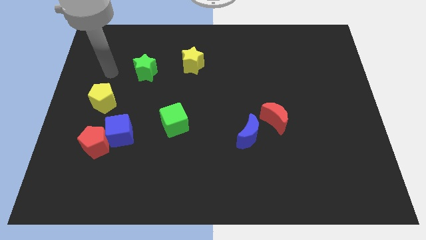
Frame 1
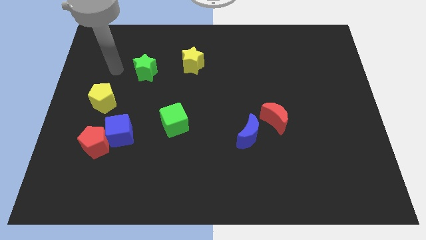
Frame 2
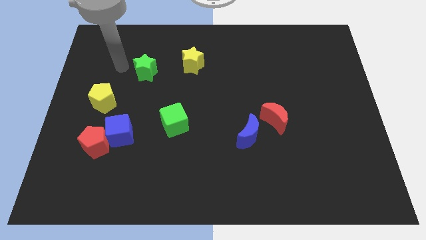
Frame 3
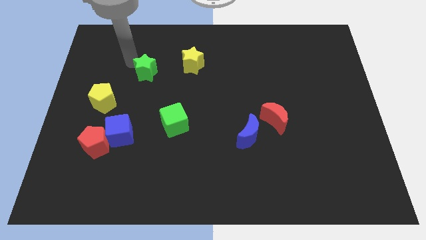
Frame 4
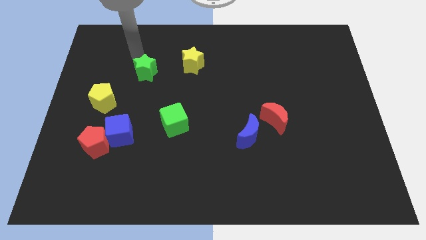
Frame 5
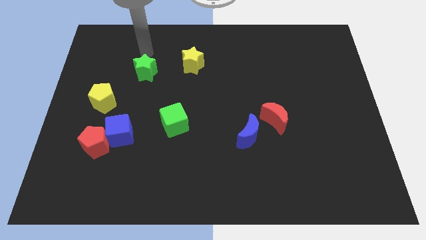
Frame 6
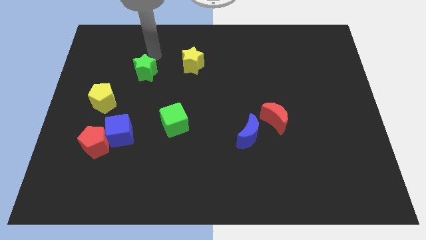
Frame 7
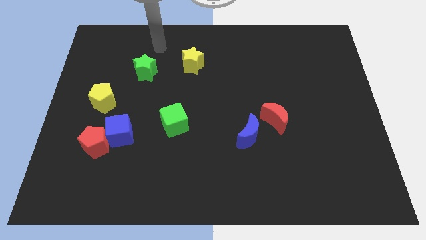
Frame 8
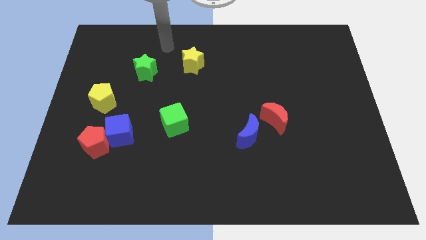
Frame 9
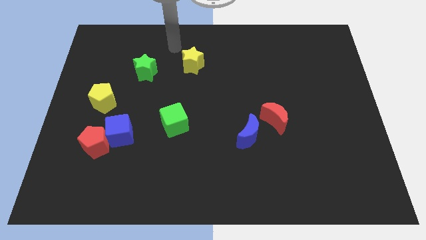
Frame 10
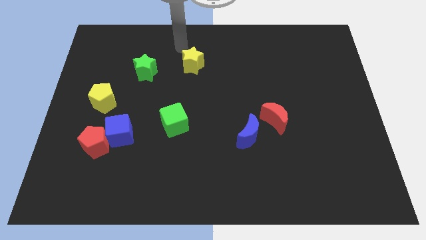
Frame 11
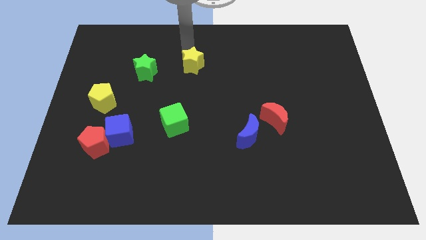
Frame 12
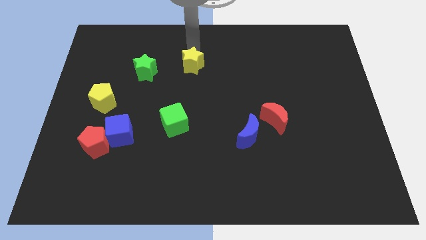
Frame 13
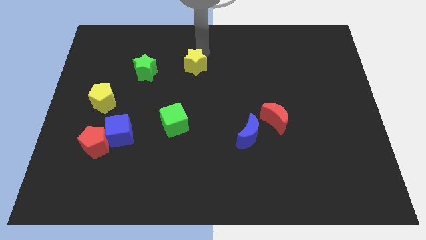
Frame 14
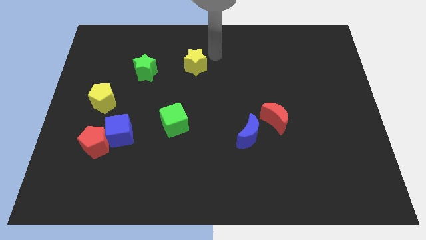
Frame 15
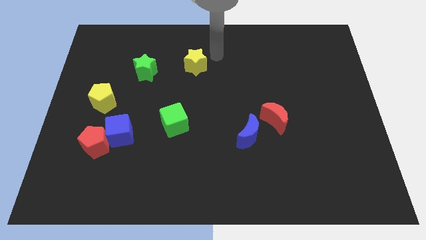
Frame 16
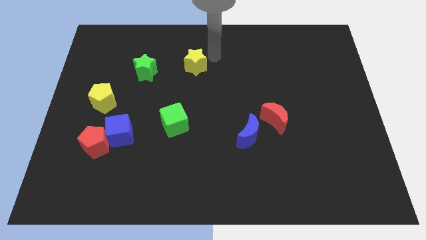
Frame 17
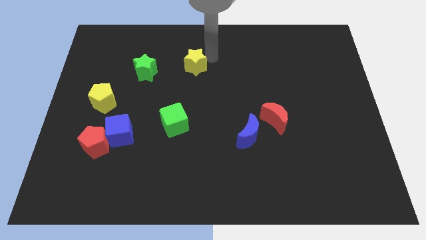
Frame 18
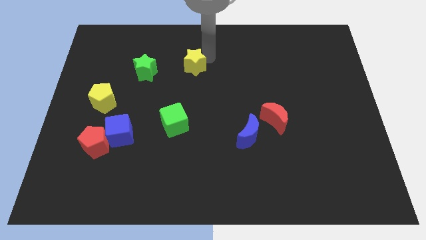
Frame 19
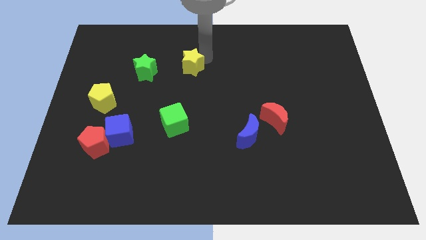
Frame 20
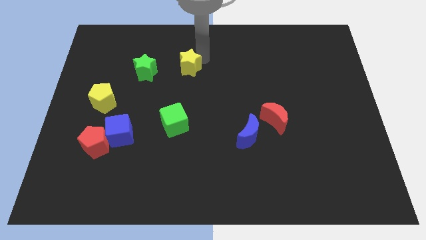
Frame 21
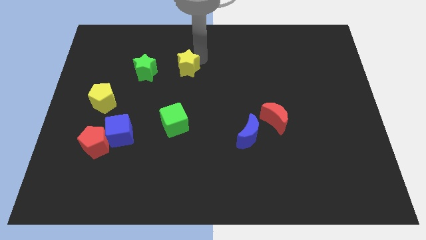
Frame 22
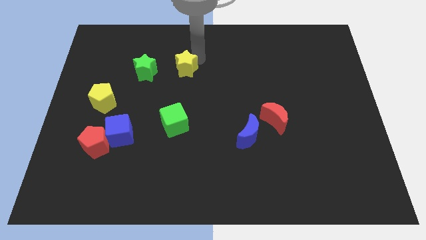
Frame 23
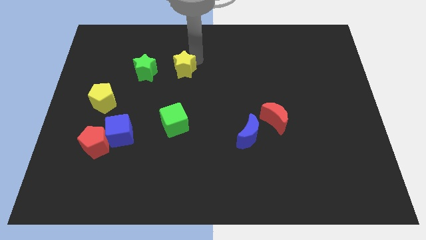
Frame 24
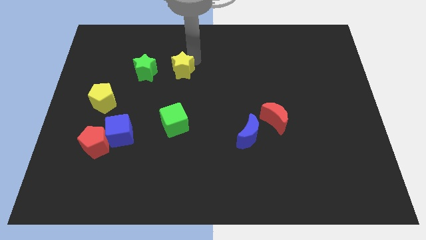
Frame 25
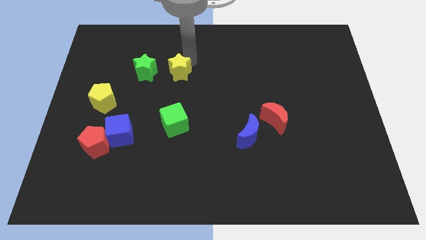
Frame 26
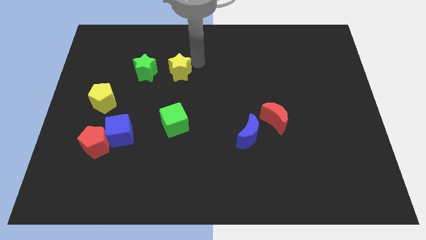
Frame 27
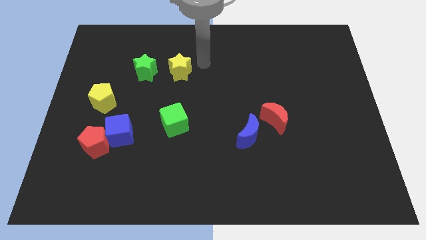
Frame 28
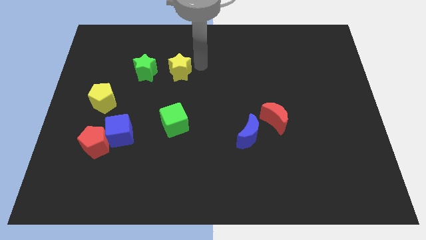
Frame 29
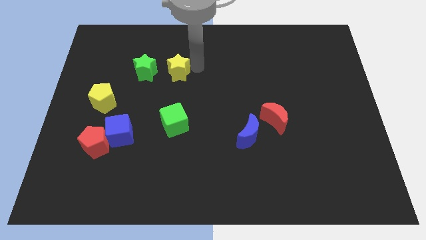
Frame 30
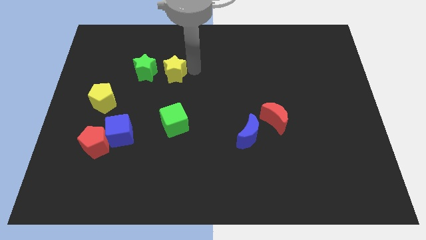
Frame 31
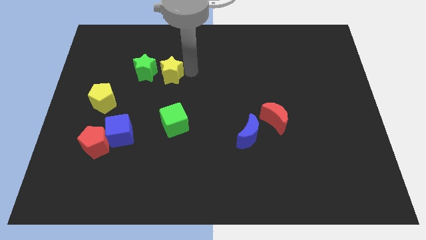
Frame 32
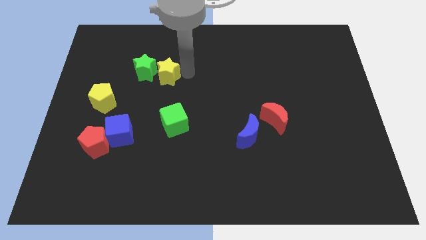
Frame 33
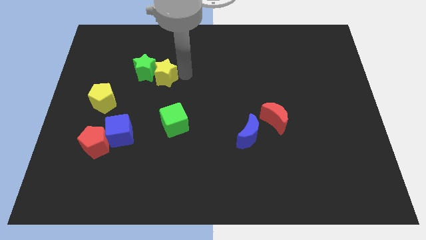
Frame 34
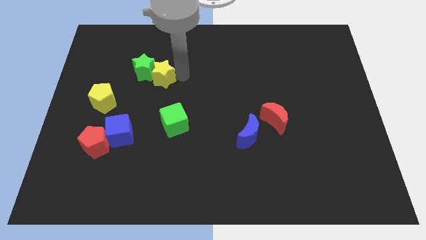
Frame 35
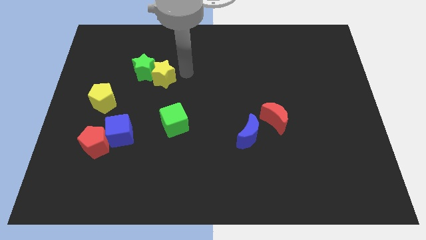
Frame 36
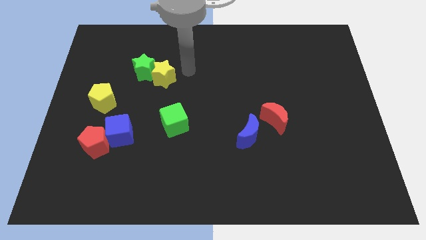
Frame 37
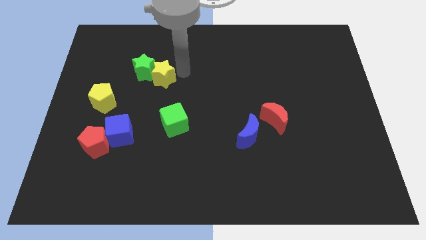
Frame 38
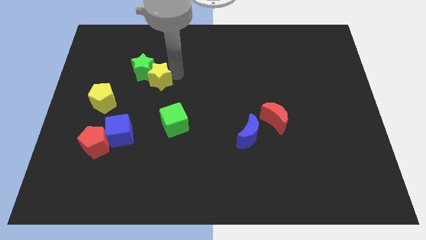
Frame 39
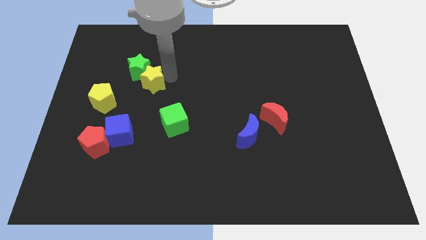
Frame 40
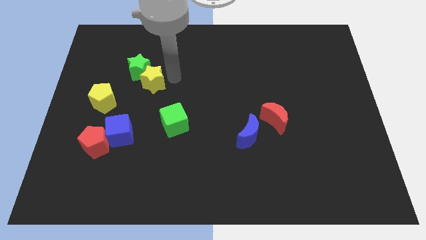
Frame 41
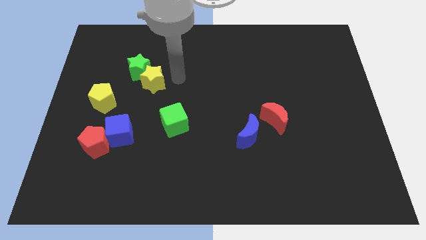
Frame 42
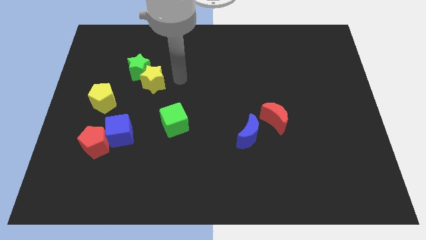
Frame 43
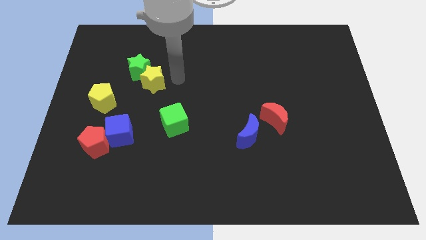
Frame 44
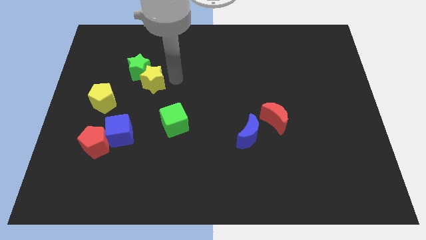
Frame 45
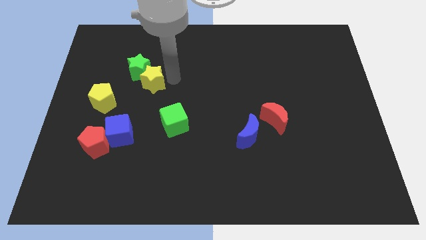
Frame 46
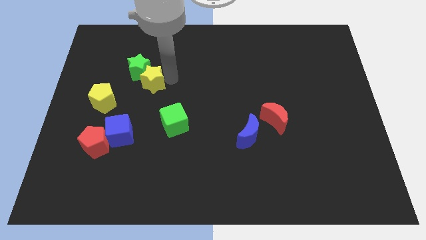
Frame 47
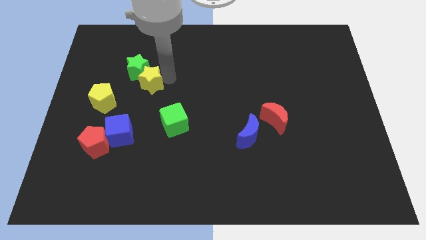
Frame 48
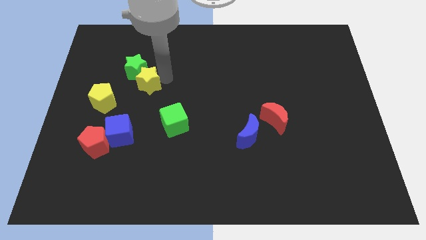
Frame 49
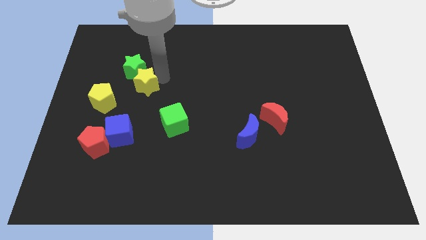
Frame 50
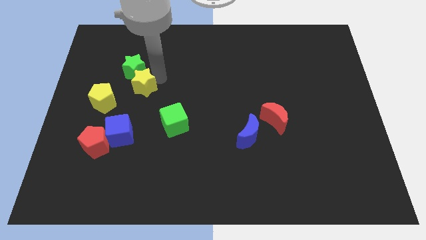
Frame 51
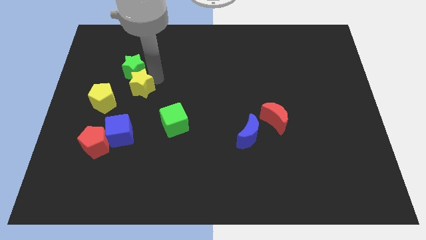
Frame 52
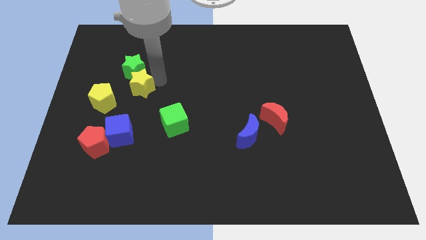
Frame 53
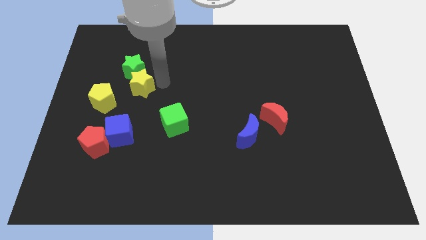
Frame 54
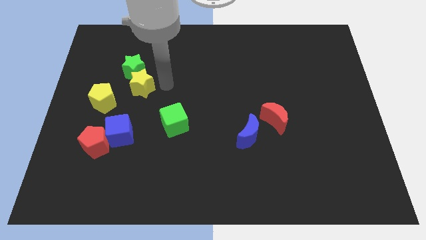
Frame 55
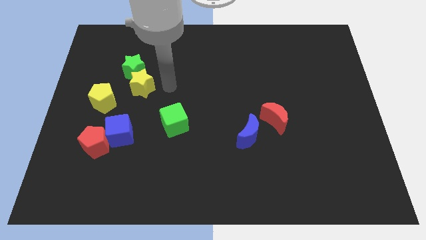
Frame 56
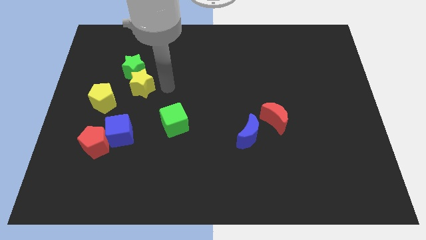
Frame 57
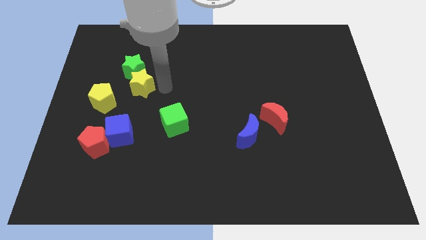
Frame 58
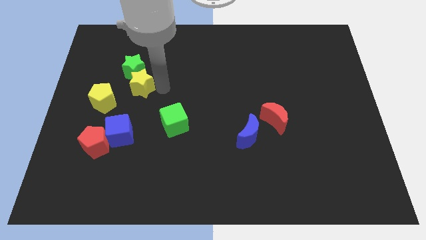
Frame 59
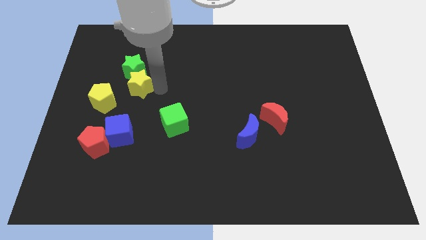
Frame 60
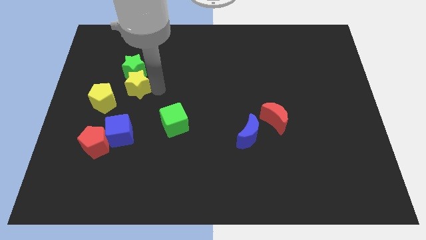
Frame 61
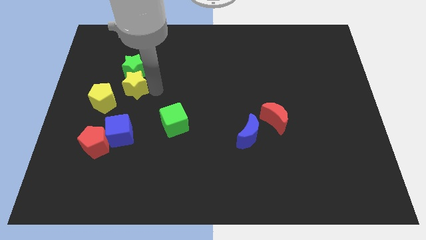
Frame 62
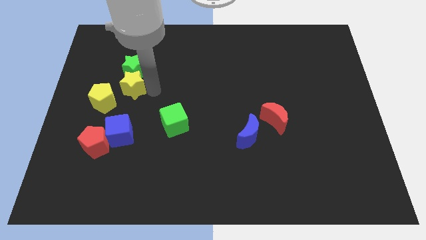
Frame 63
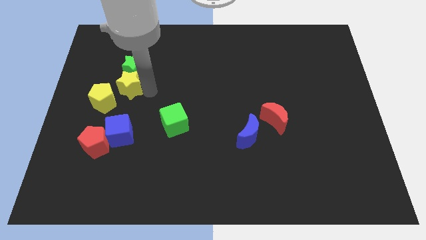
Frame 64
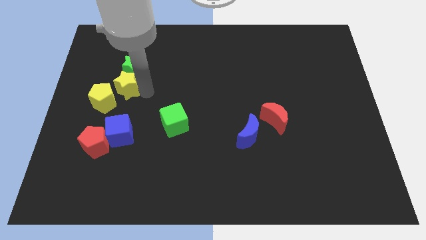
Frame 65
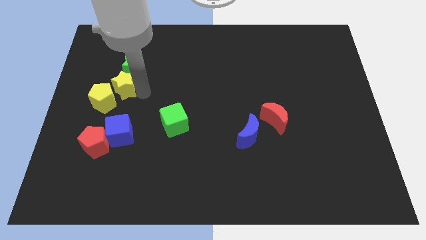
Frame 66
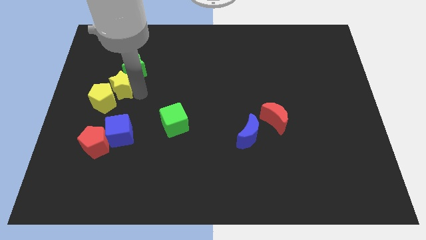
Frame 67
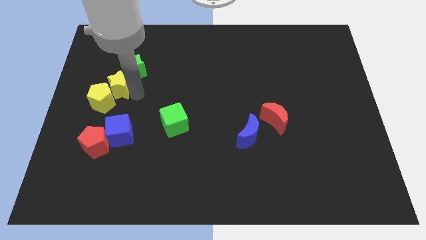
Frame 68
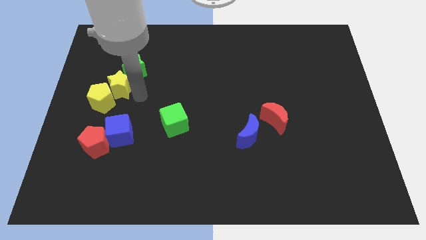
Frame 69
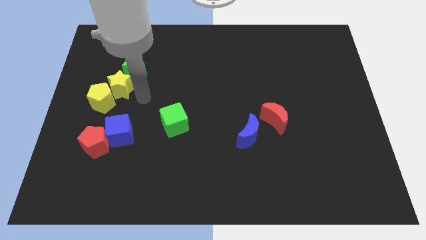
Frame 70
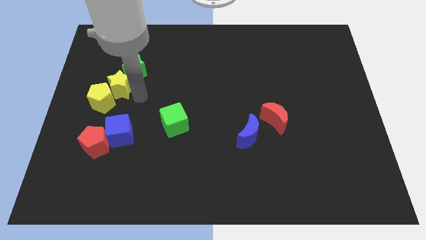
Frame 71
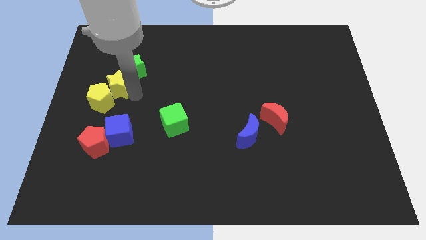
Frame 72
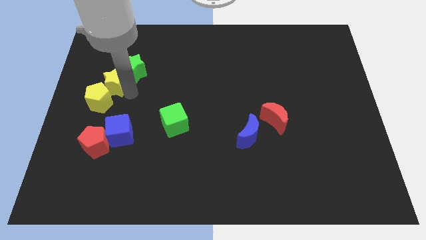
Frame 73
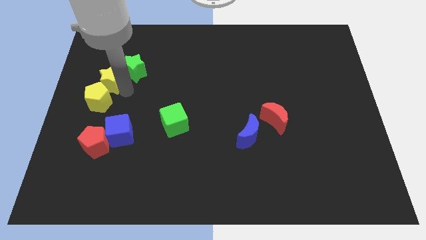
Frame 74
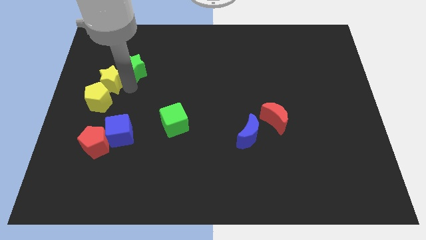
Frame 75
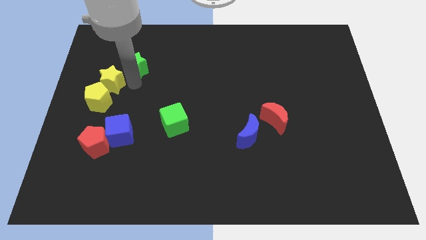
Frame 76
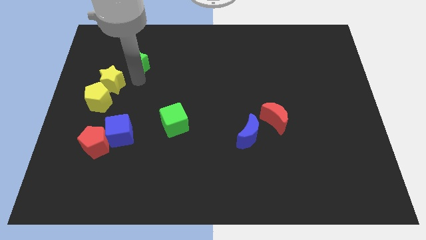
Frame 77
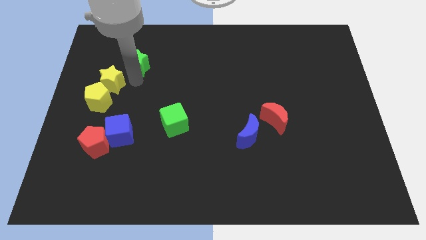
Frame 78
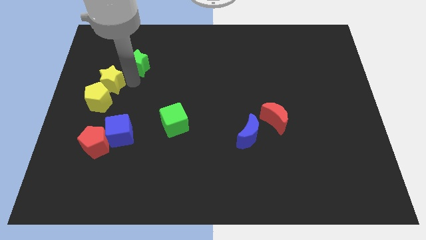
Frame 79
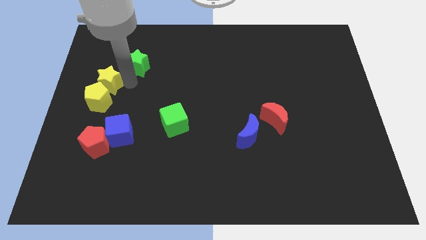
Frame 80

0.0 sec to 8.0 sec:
slide the yellow star to the left side of the board
